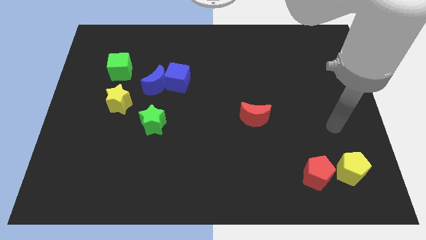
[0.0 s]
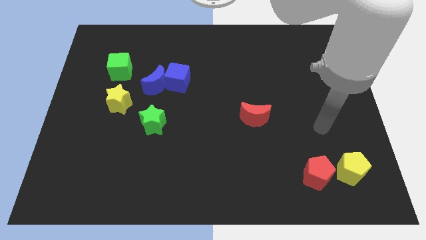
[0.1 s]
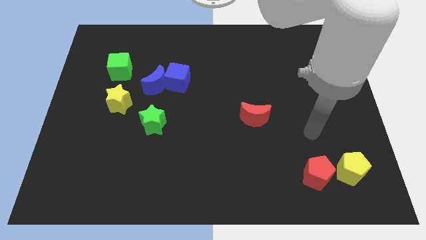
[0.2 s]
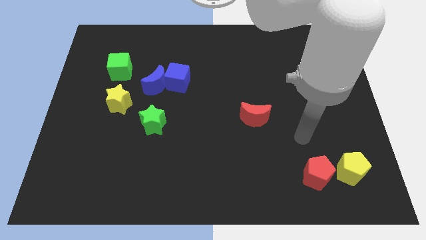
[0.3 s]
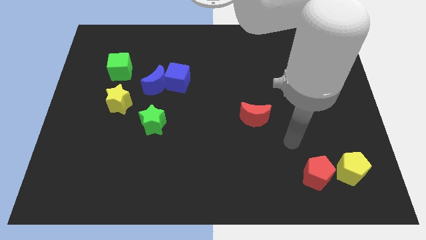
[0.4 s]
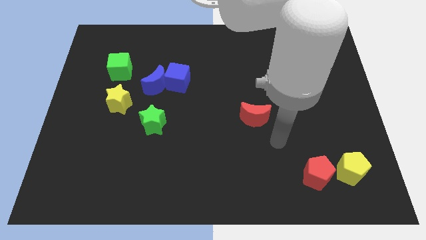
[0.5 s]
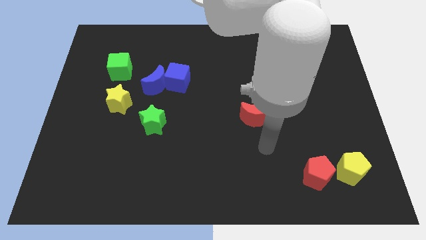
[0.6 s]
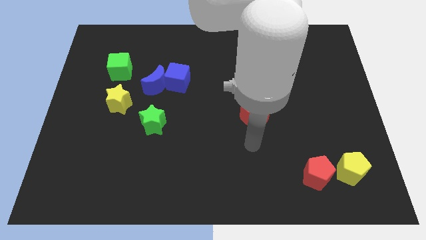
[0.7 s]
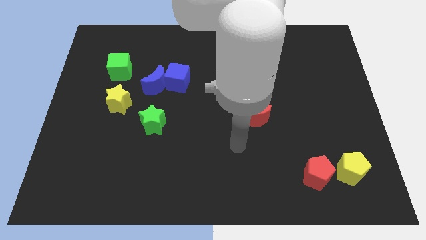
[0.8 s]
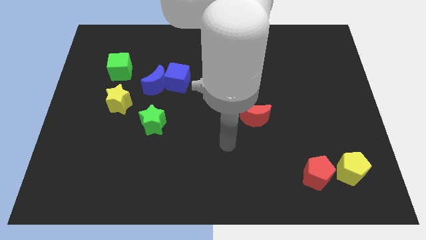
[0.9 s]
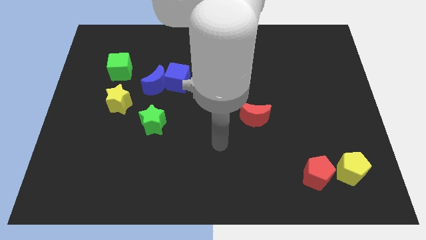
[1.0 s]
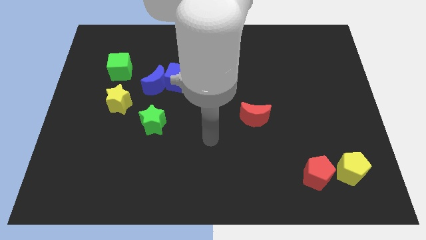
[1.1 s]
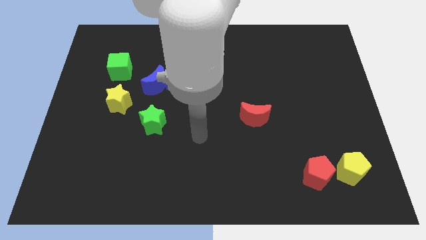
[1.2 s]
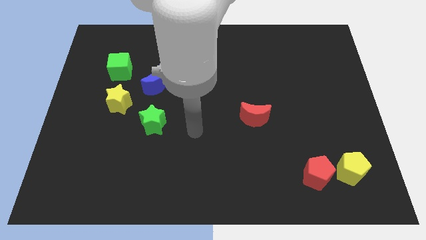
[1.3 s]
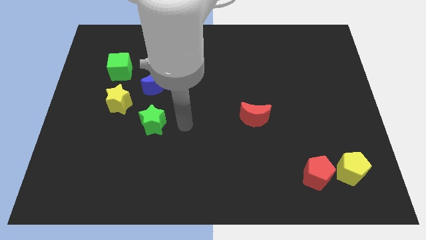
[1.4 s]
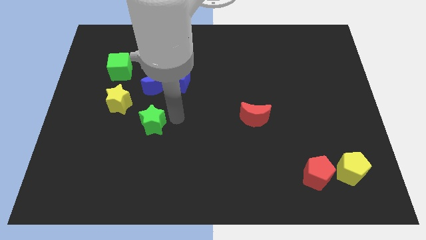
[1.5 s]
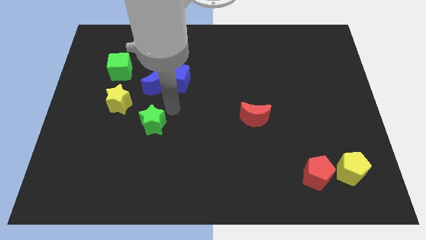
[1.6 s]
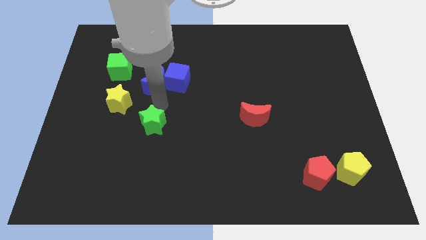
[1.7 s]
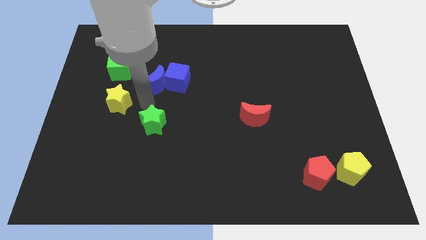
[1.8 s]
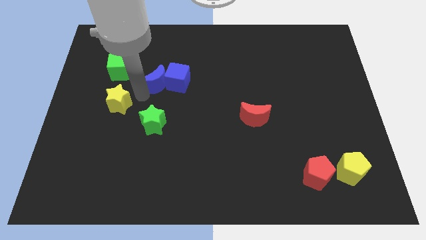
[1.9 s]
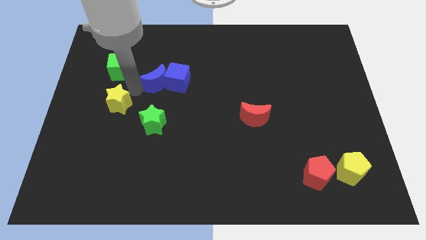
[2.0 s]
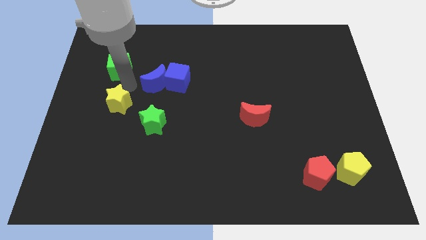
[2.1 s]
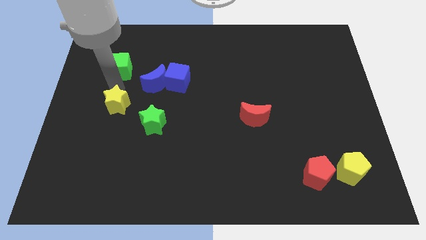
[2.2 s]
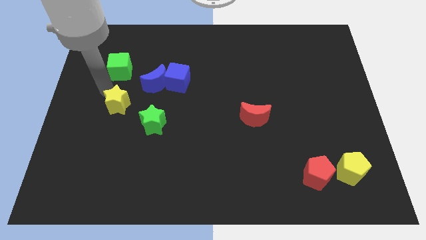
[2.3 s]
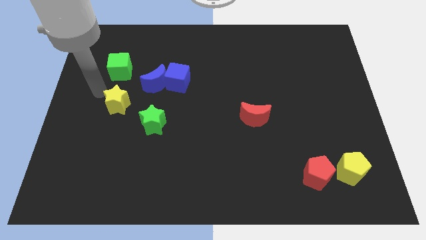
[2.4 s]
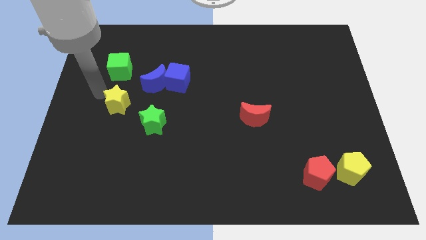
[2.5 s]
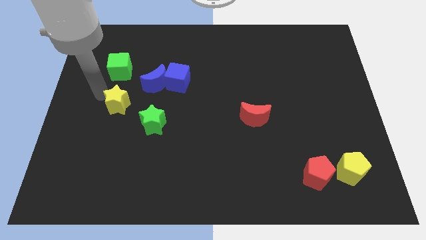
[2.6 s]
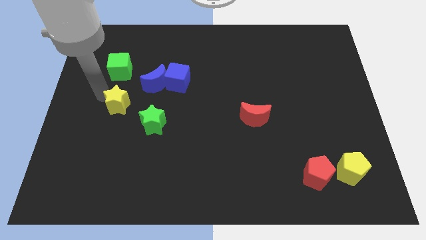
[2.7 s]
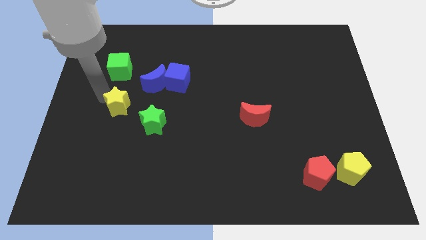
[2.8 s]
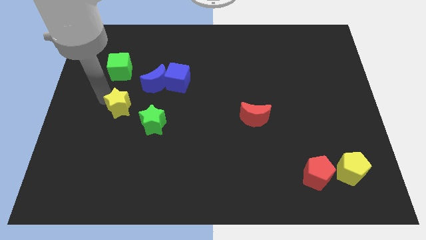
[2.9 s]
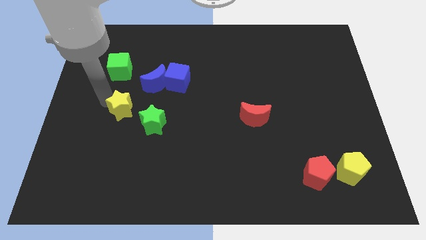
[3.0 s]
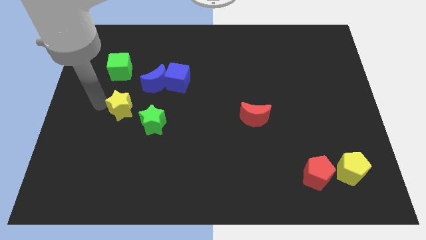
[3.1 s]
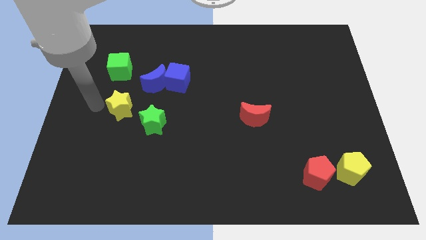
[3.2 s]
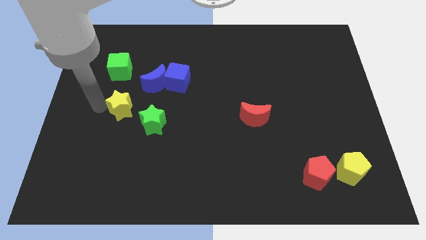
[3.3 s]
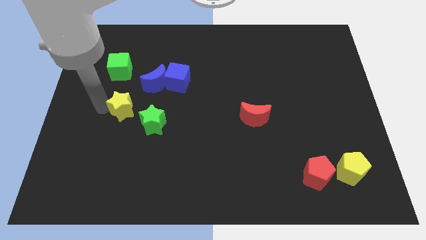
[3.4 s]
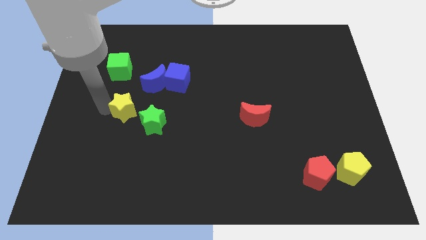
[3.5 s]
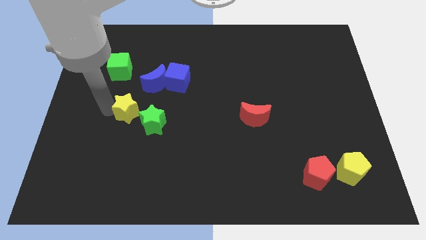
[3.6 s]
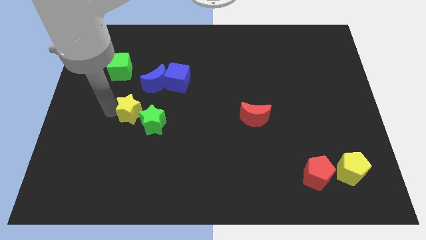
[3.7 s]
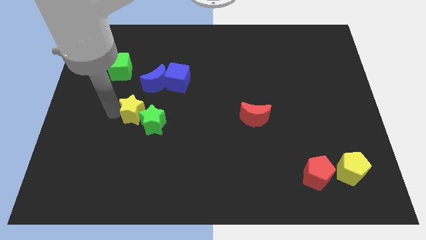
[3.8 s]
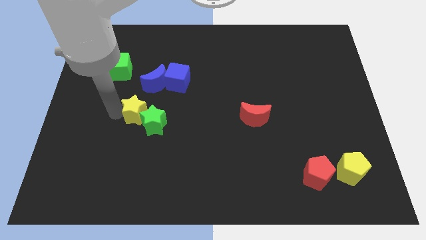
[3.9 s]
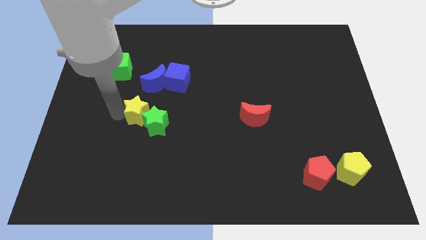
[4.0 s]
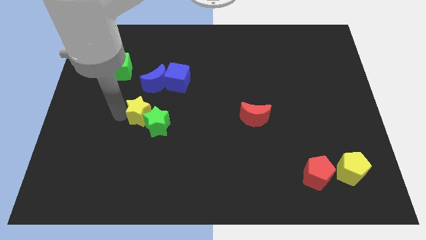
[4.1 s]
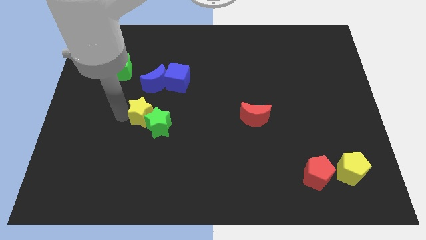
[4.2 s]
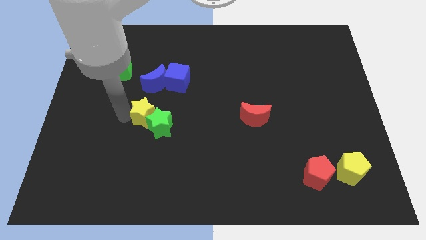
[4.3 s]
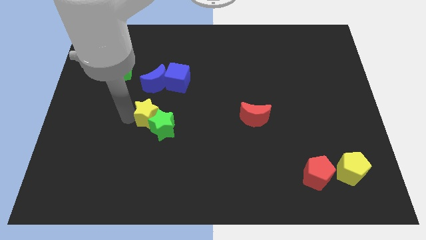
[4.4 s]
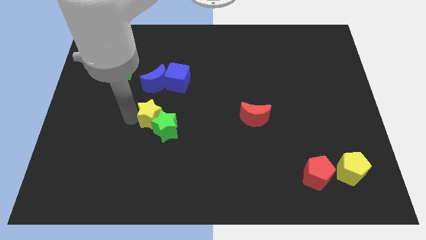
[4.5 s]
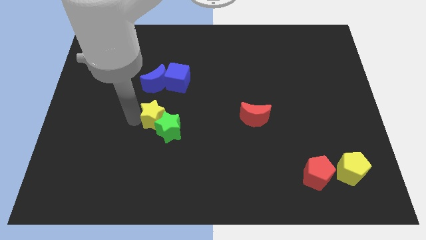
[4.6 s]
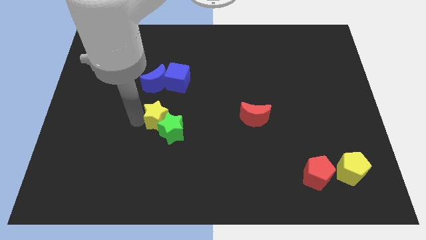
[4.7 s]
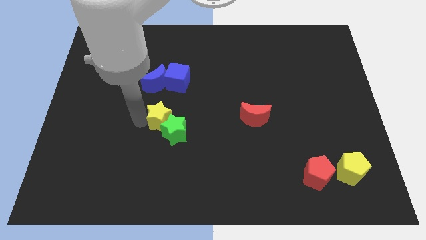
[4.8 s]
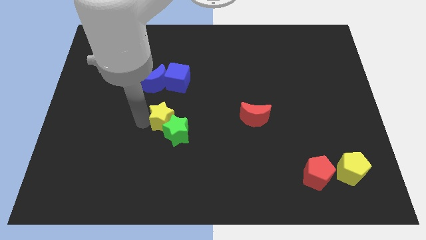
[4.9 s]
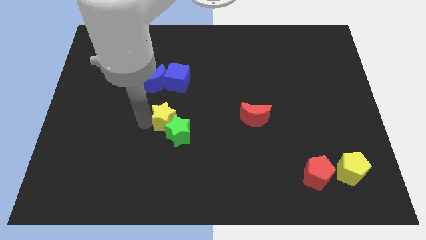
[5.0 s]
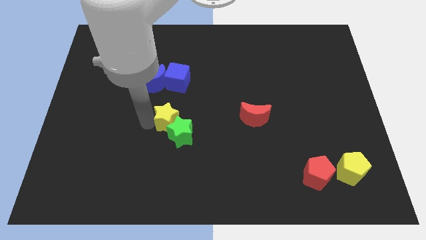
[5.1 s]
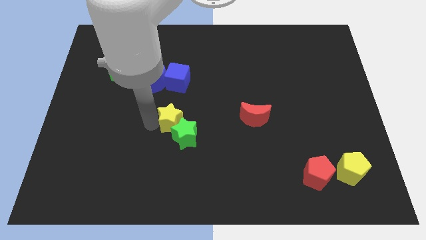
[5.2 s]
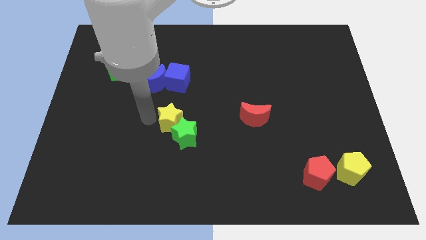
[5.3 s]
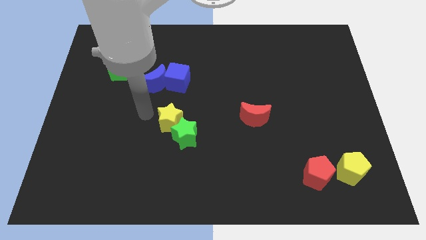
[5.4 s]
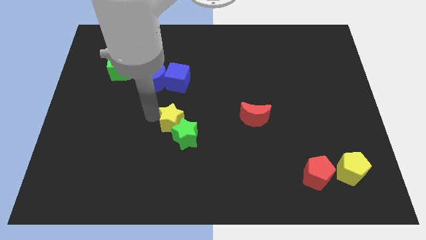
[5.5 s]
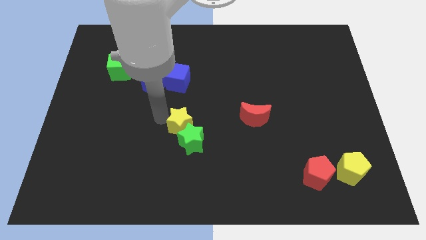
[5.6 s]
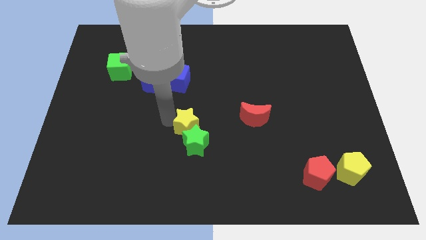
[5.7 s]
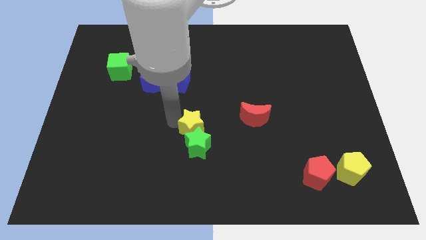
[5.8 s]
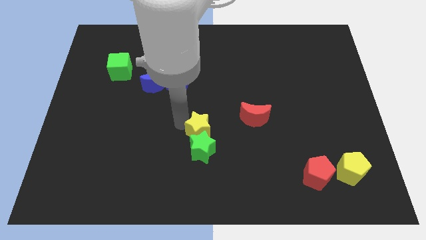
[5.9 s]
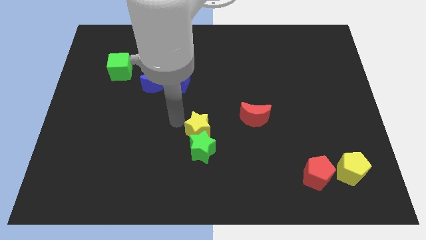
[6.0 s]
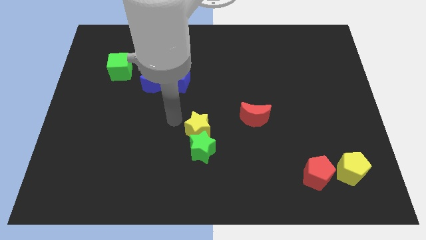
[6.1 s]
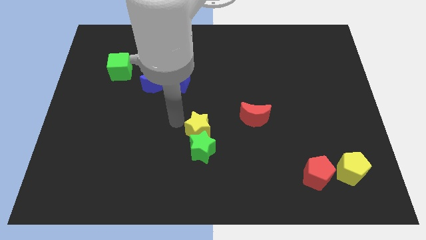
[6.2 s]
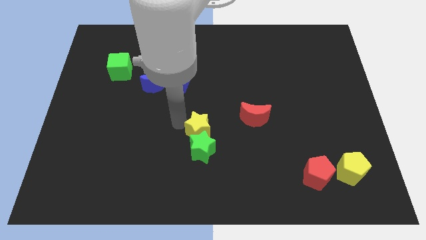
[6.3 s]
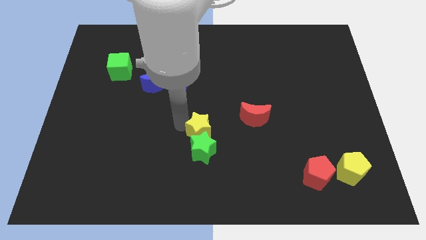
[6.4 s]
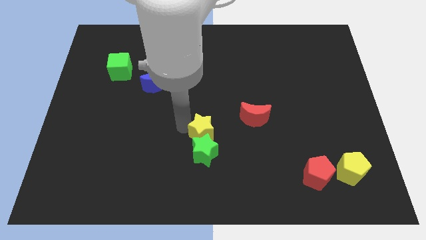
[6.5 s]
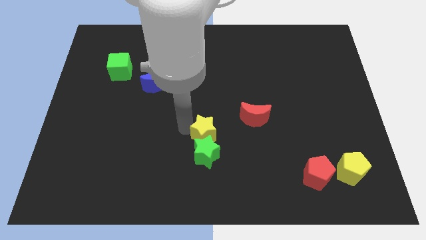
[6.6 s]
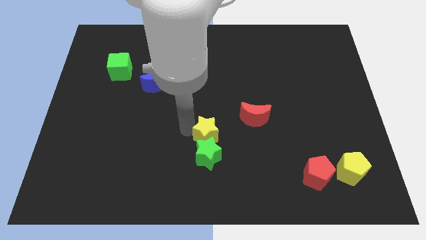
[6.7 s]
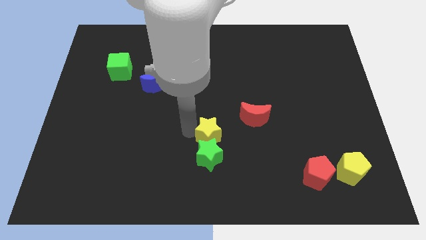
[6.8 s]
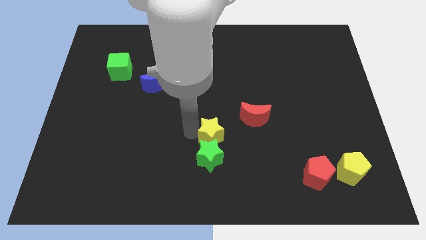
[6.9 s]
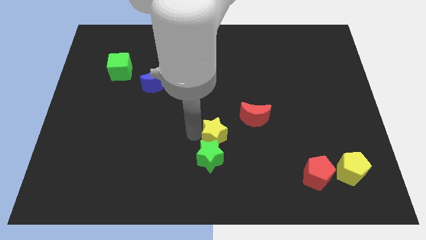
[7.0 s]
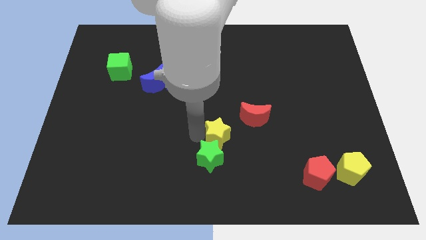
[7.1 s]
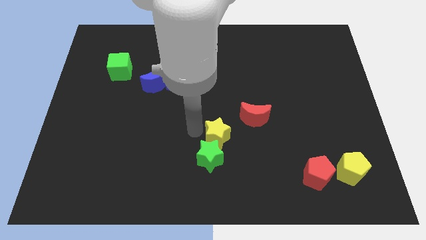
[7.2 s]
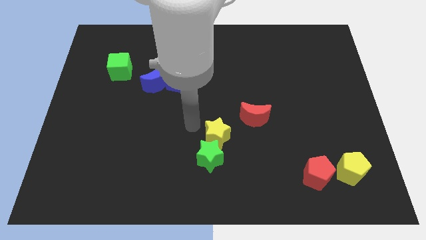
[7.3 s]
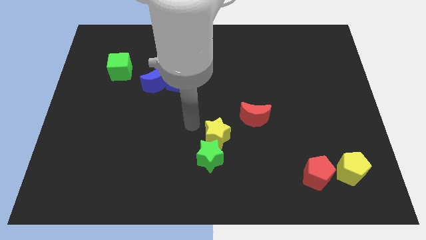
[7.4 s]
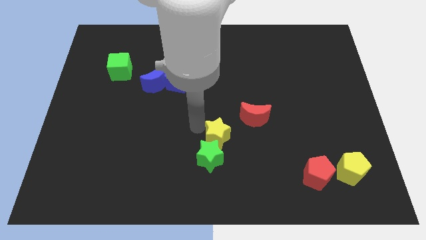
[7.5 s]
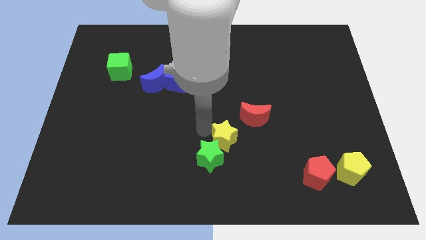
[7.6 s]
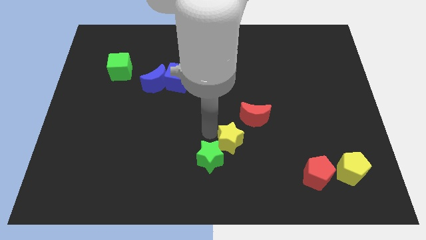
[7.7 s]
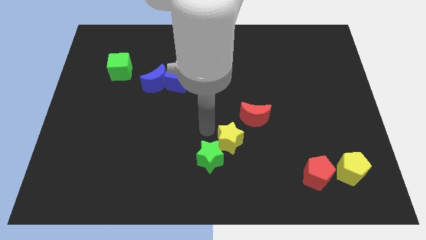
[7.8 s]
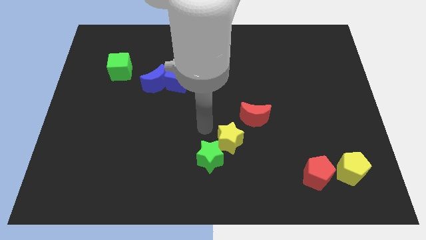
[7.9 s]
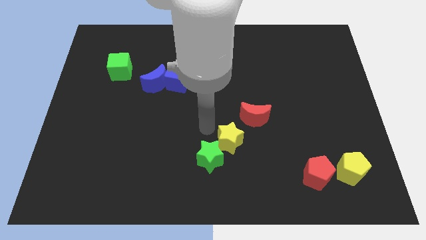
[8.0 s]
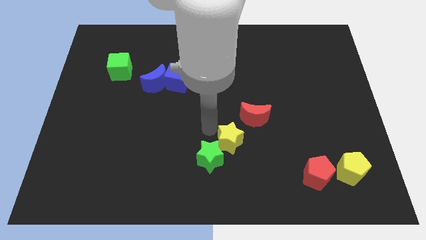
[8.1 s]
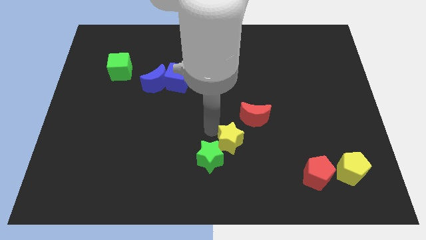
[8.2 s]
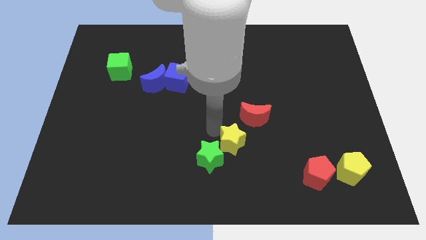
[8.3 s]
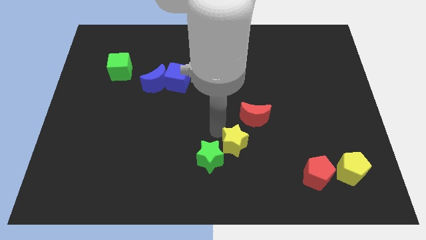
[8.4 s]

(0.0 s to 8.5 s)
push the yellow star to the bottom side of the red moon
